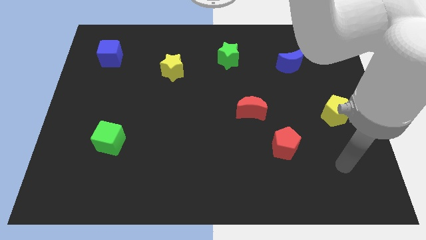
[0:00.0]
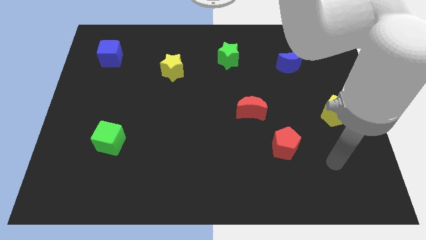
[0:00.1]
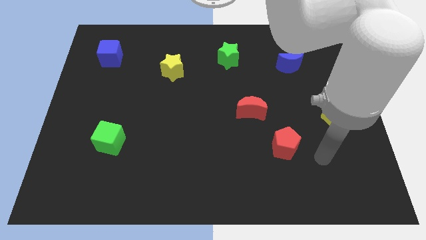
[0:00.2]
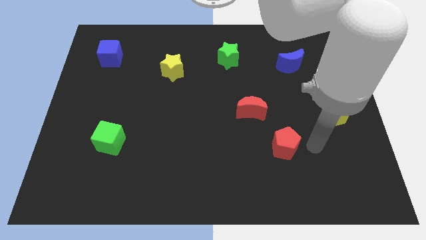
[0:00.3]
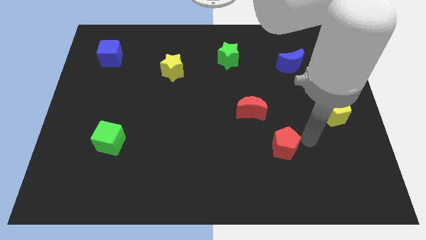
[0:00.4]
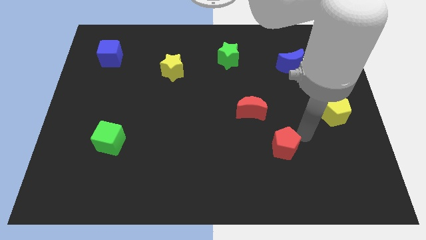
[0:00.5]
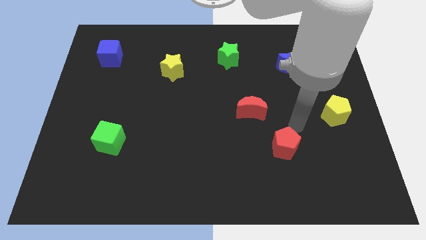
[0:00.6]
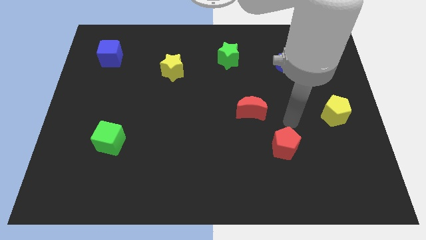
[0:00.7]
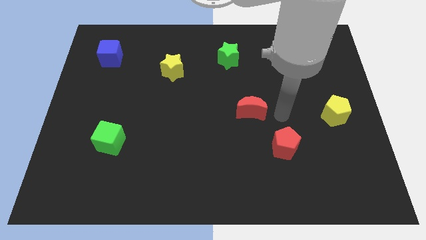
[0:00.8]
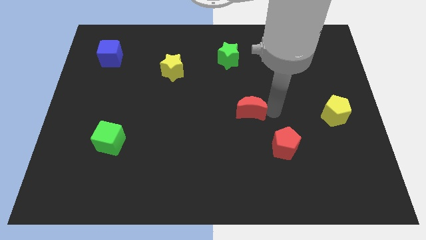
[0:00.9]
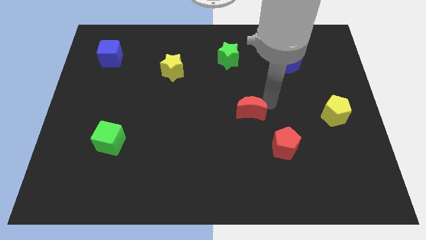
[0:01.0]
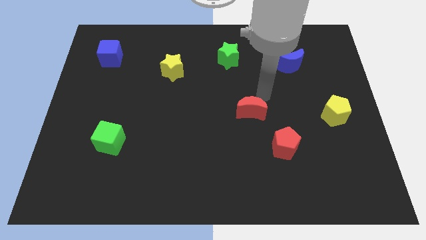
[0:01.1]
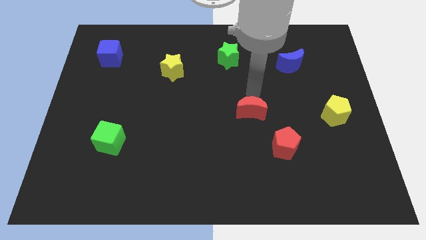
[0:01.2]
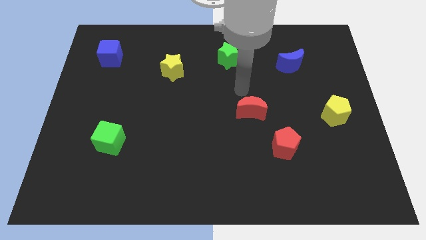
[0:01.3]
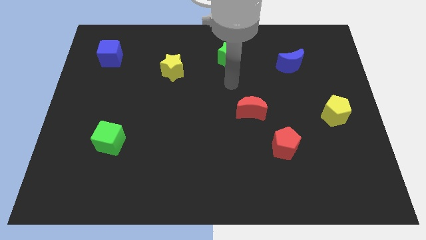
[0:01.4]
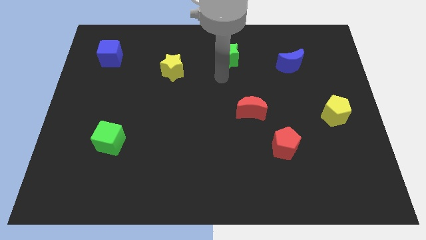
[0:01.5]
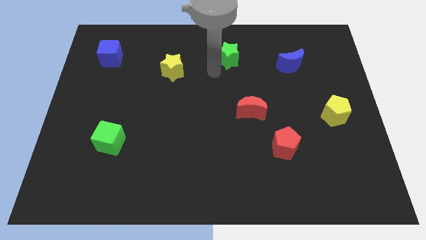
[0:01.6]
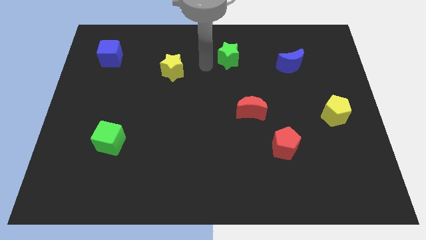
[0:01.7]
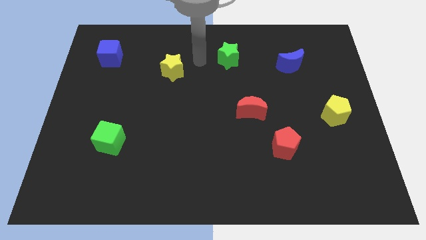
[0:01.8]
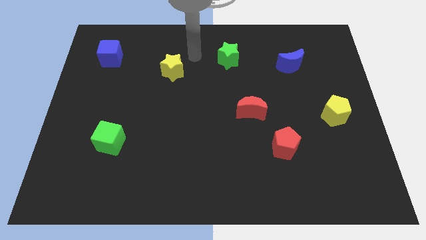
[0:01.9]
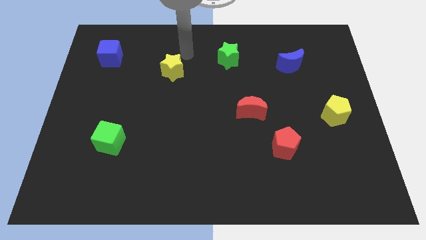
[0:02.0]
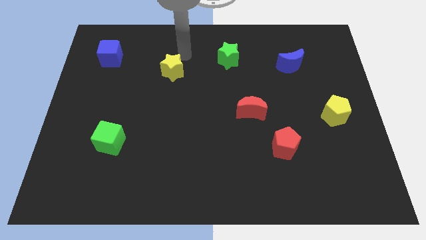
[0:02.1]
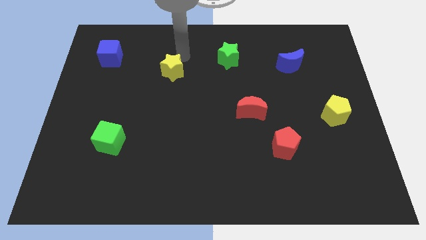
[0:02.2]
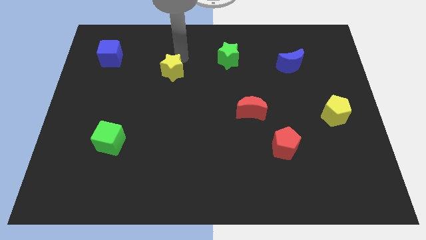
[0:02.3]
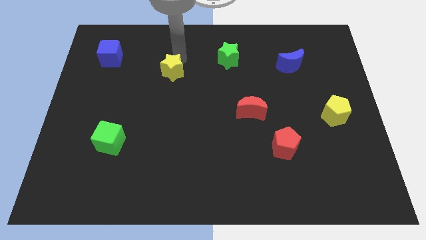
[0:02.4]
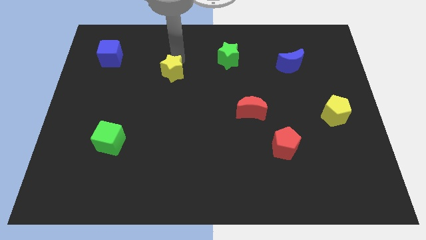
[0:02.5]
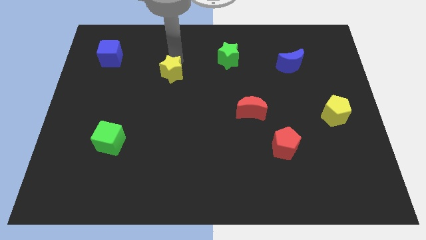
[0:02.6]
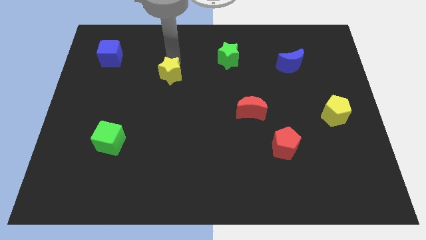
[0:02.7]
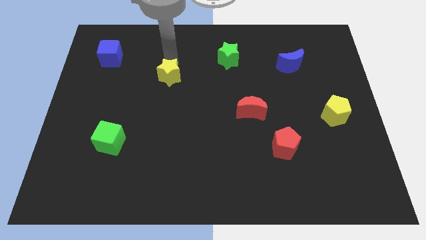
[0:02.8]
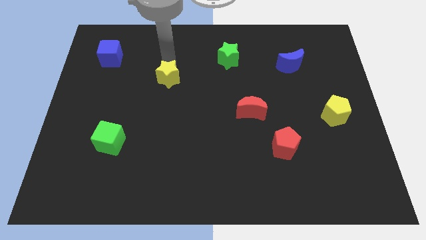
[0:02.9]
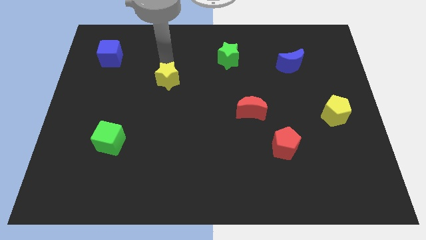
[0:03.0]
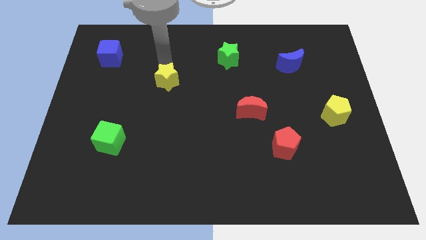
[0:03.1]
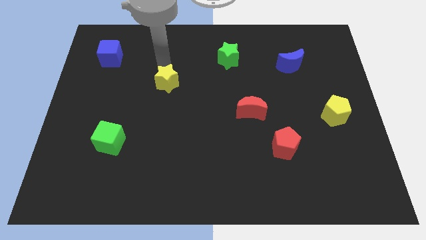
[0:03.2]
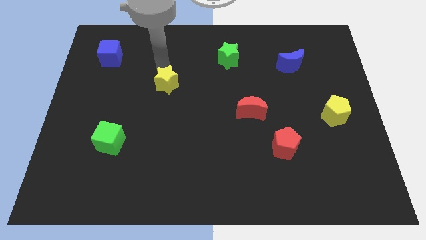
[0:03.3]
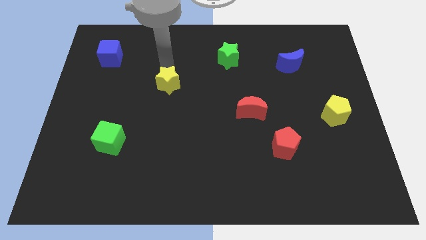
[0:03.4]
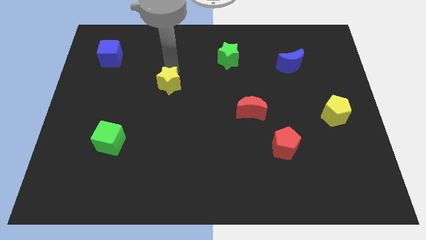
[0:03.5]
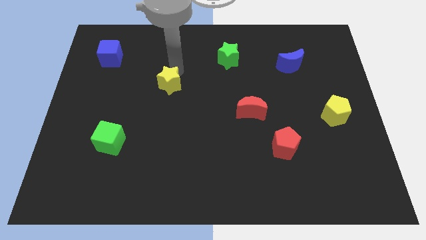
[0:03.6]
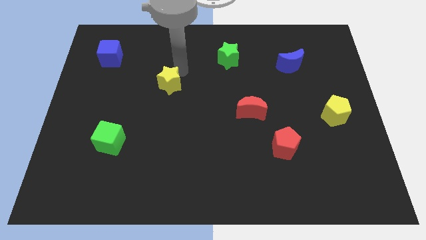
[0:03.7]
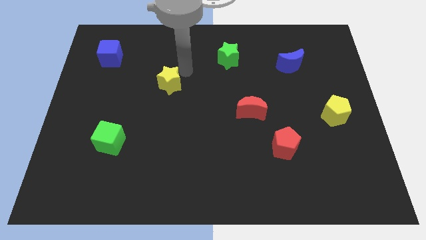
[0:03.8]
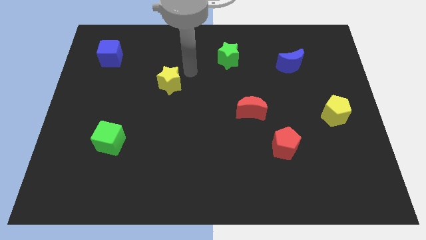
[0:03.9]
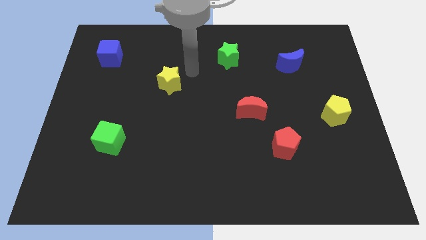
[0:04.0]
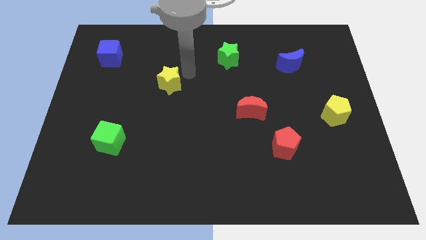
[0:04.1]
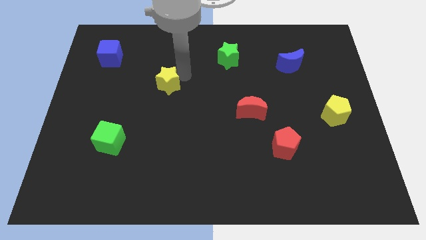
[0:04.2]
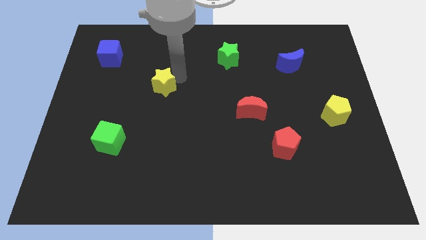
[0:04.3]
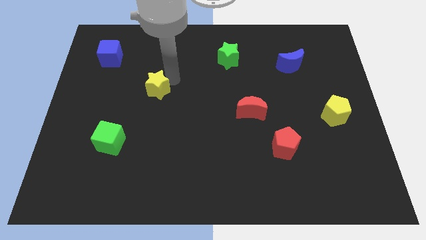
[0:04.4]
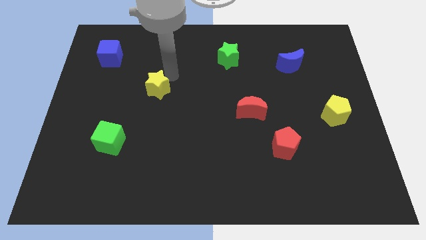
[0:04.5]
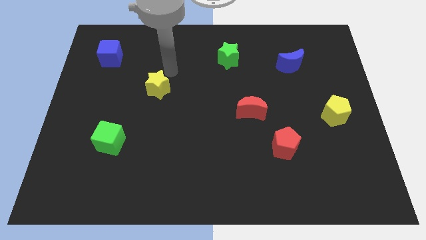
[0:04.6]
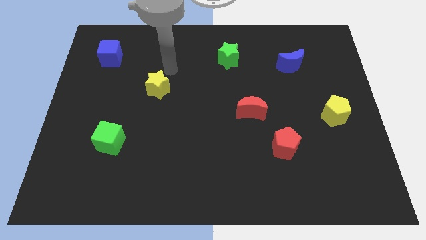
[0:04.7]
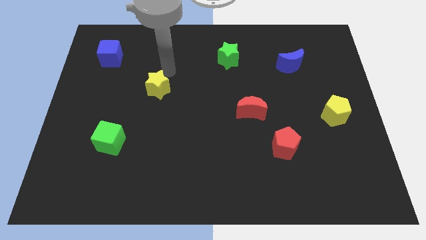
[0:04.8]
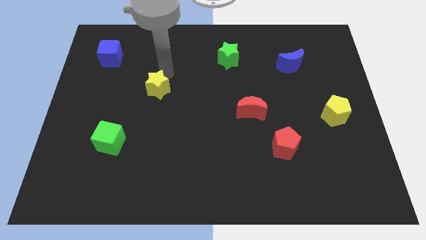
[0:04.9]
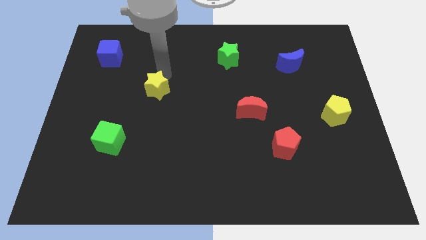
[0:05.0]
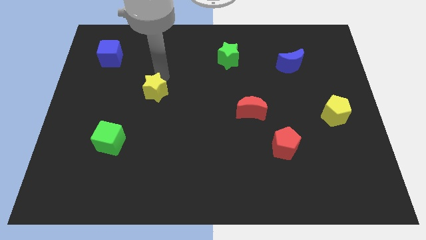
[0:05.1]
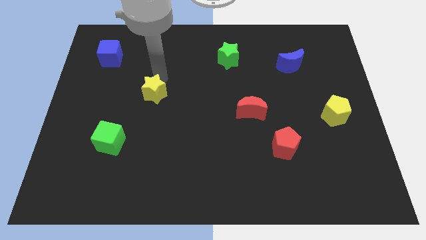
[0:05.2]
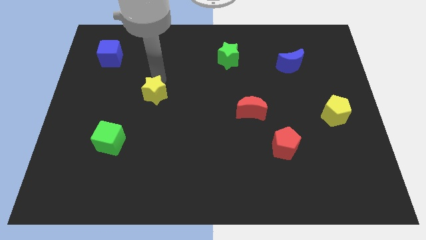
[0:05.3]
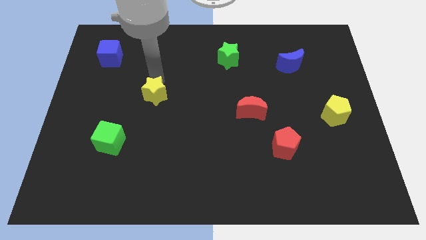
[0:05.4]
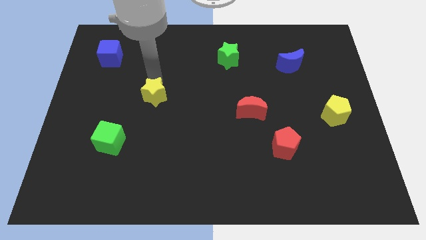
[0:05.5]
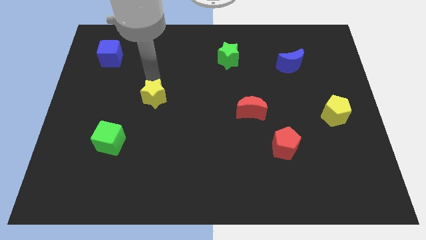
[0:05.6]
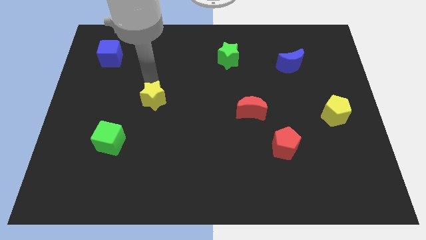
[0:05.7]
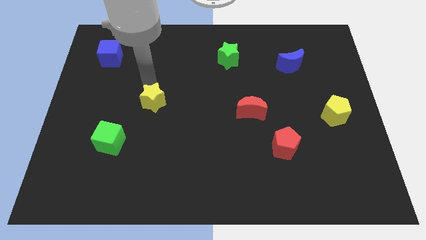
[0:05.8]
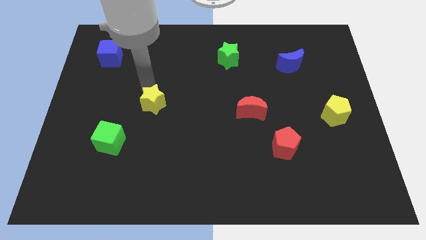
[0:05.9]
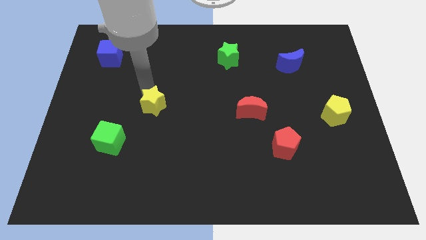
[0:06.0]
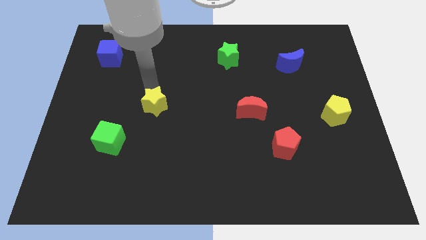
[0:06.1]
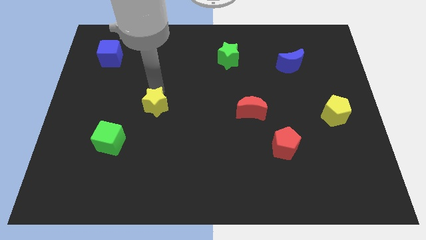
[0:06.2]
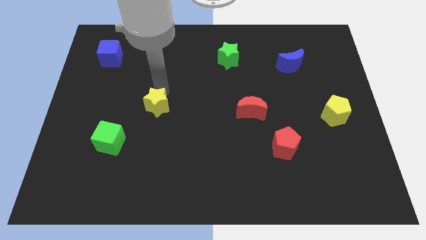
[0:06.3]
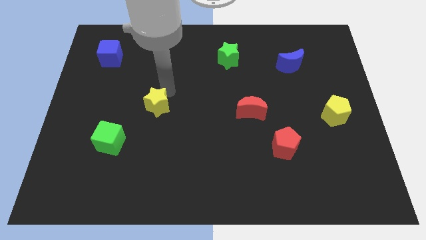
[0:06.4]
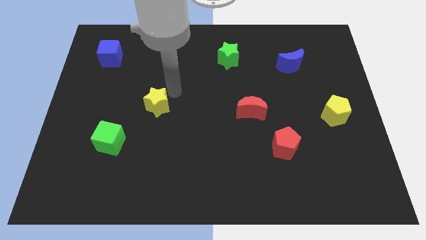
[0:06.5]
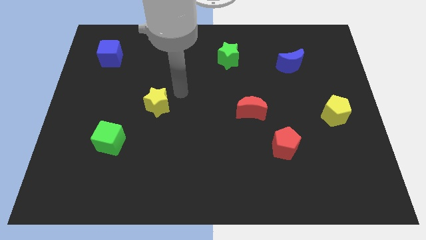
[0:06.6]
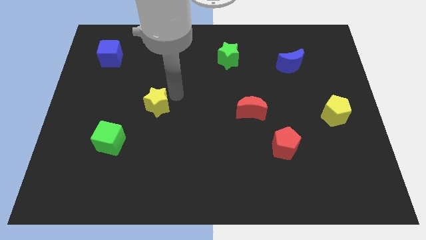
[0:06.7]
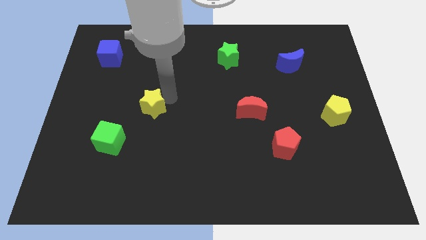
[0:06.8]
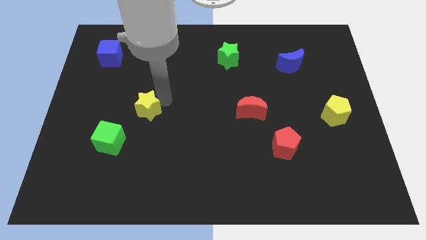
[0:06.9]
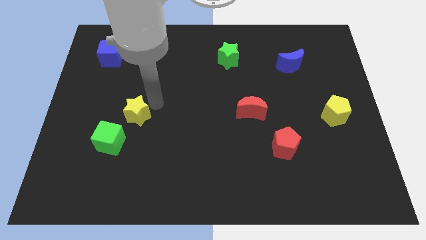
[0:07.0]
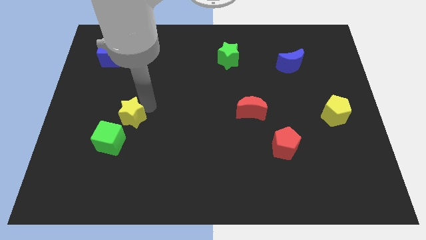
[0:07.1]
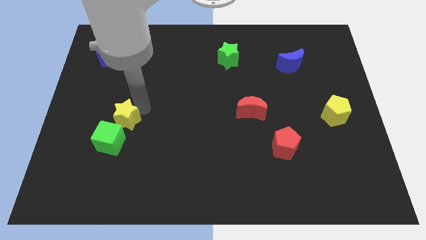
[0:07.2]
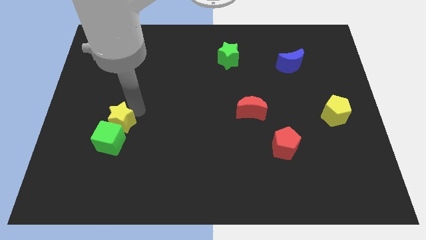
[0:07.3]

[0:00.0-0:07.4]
push the yellow star to the green cube
